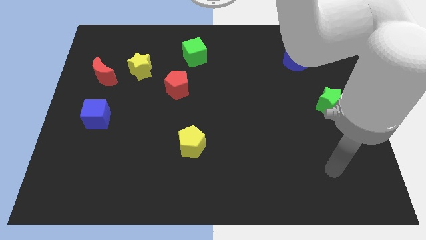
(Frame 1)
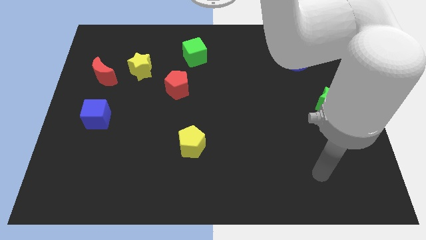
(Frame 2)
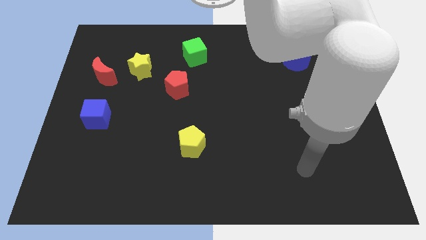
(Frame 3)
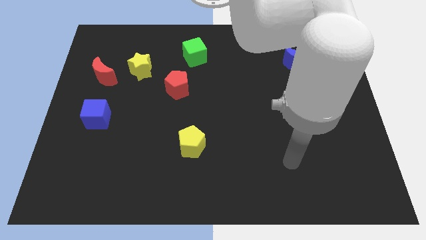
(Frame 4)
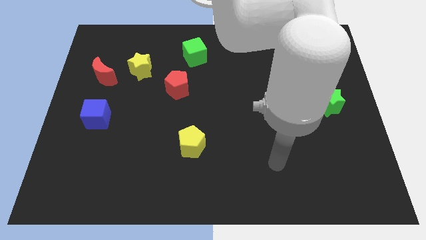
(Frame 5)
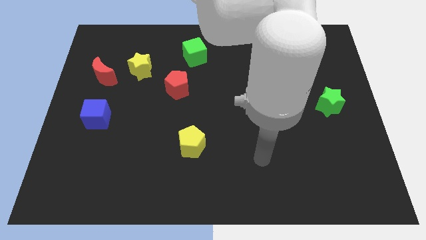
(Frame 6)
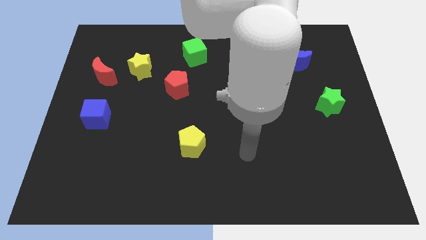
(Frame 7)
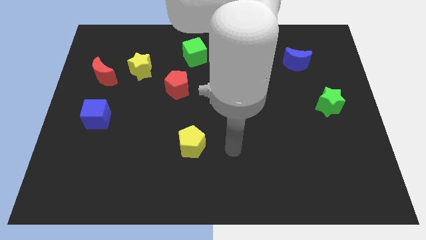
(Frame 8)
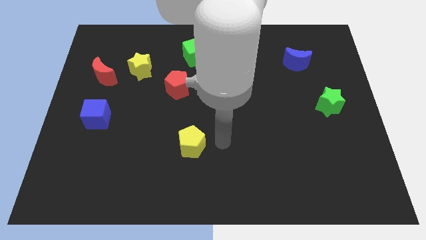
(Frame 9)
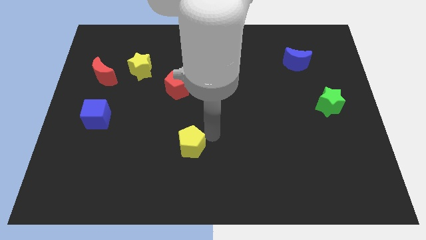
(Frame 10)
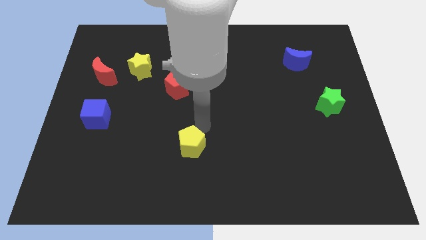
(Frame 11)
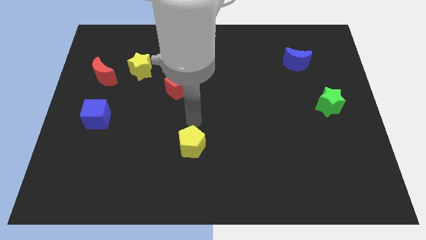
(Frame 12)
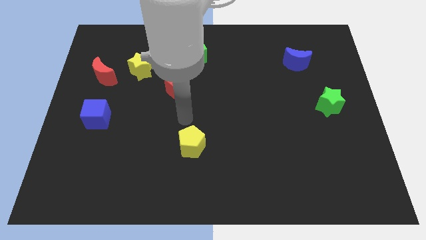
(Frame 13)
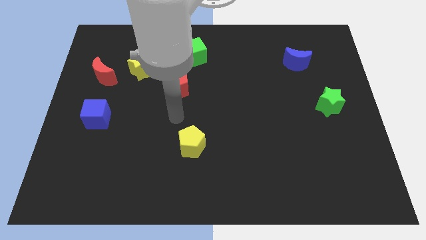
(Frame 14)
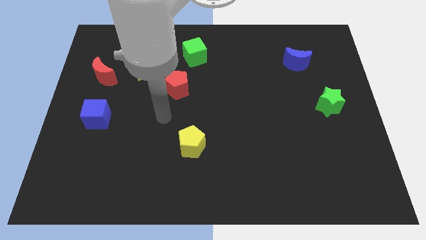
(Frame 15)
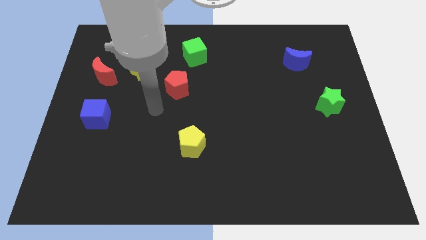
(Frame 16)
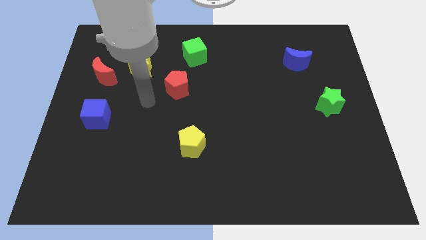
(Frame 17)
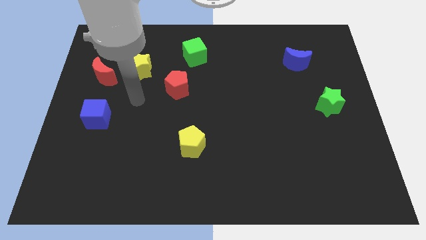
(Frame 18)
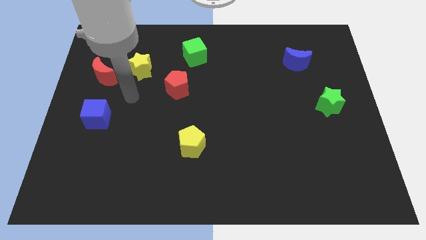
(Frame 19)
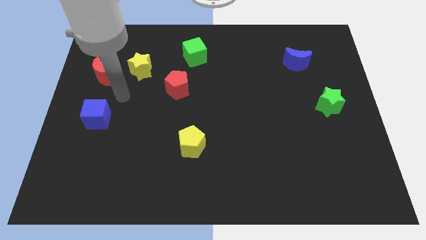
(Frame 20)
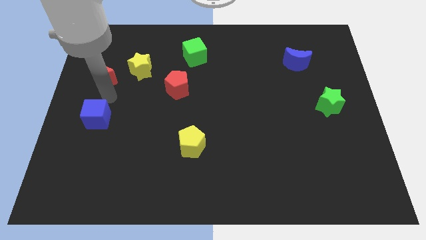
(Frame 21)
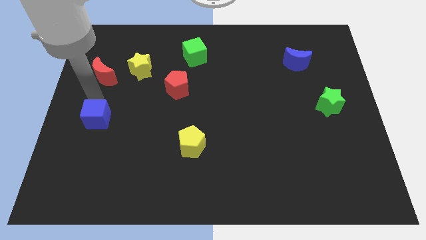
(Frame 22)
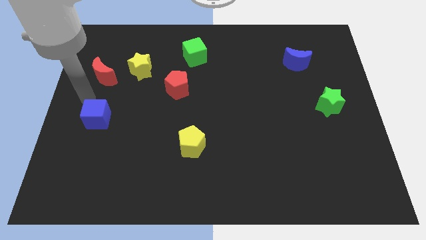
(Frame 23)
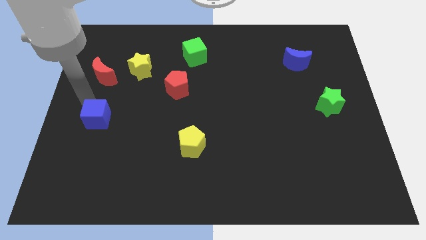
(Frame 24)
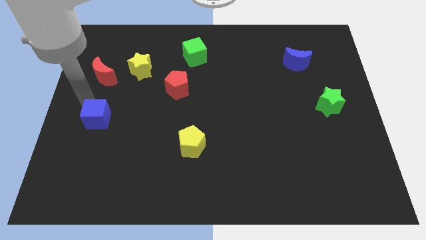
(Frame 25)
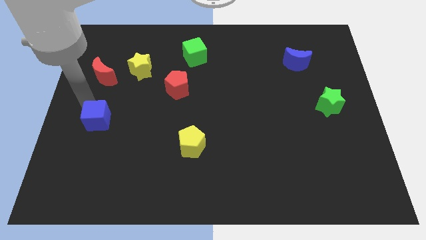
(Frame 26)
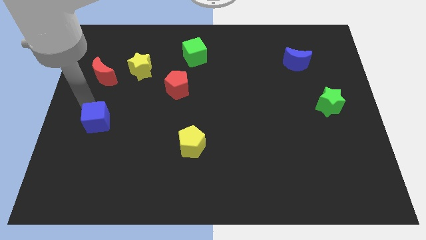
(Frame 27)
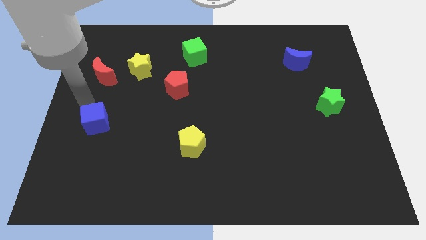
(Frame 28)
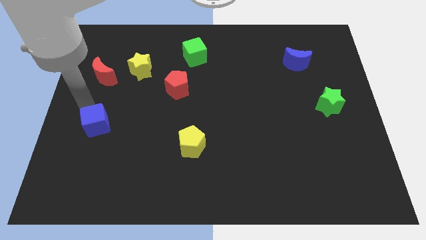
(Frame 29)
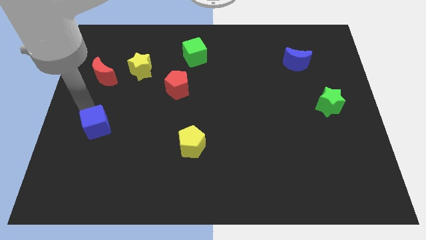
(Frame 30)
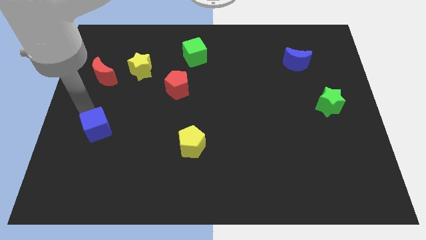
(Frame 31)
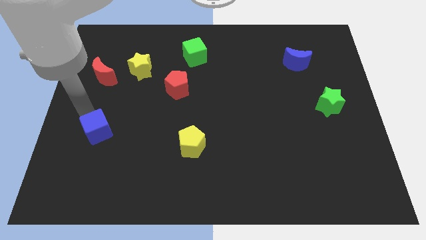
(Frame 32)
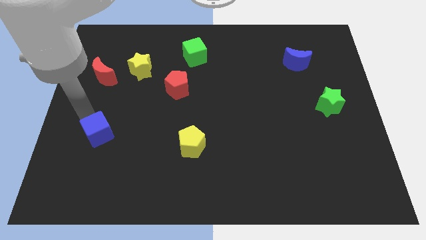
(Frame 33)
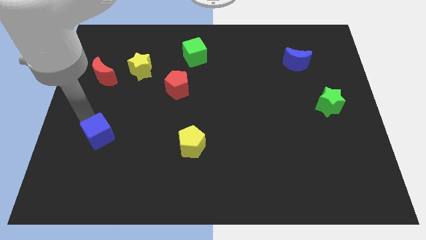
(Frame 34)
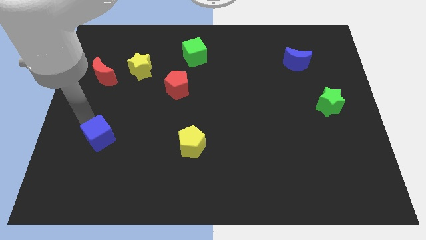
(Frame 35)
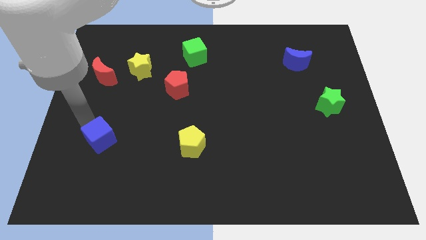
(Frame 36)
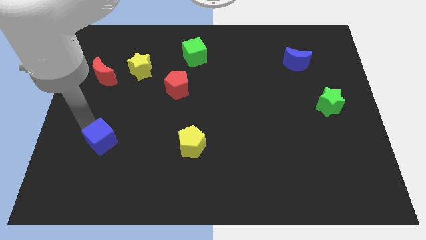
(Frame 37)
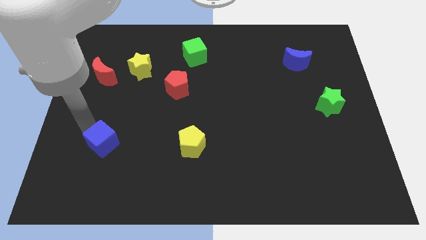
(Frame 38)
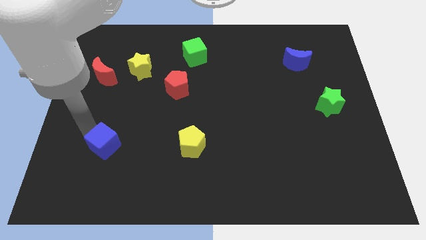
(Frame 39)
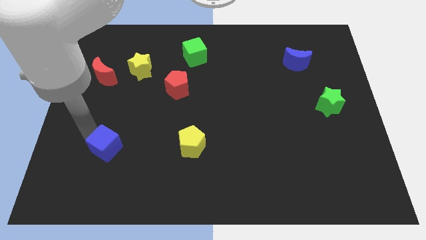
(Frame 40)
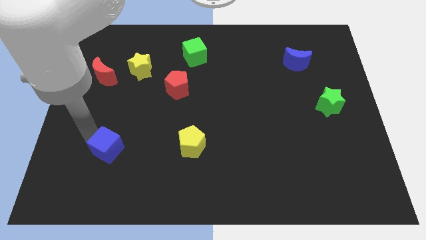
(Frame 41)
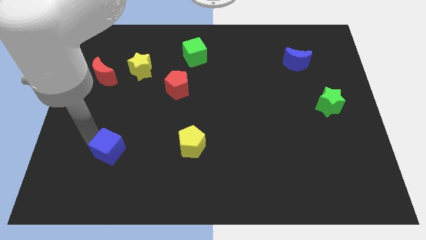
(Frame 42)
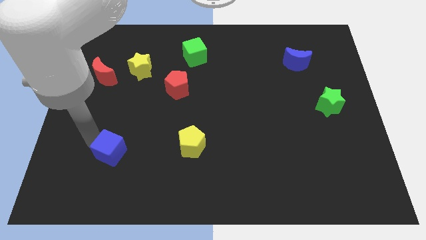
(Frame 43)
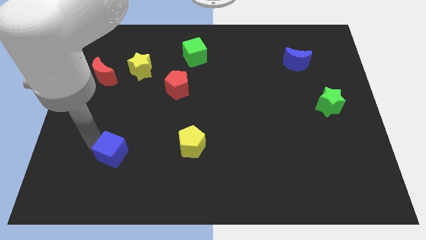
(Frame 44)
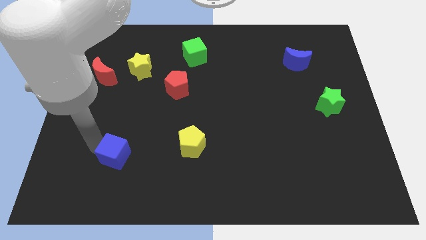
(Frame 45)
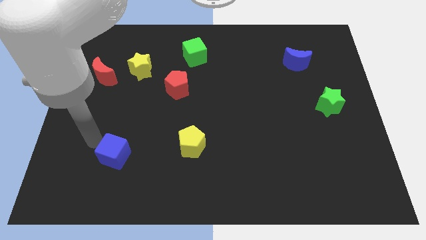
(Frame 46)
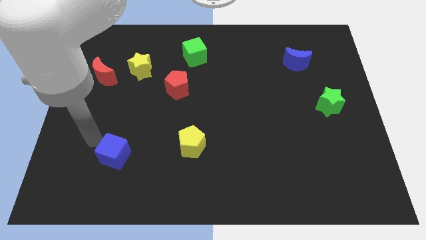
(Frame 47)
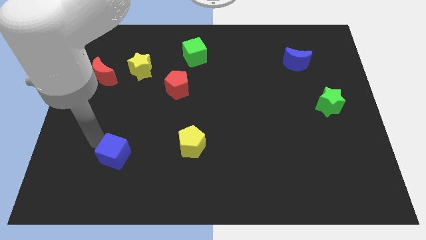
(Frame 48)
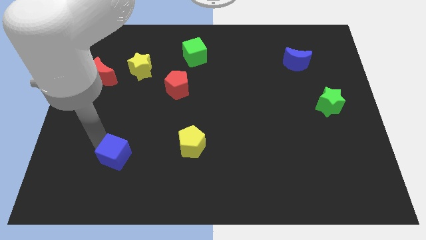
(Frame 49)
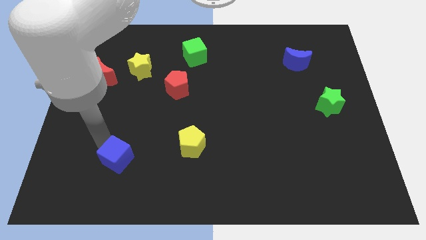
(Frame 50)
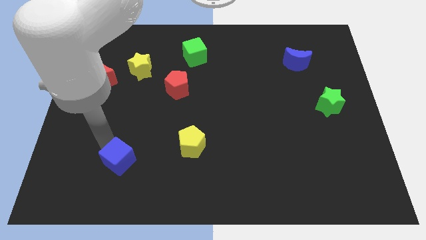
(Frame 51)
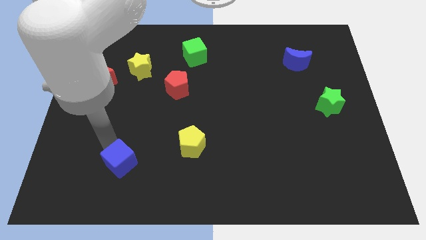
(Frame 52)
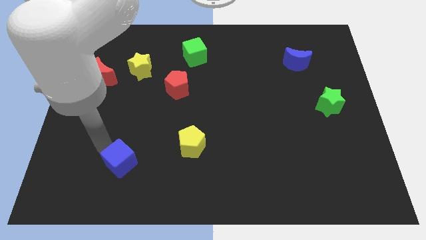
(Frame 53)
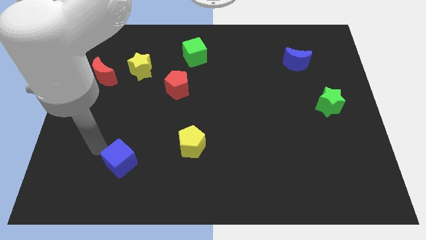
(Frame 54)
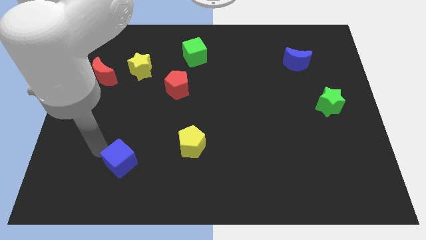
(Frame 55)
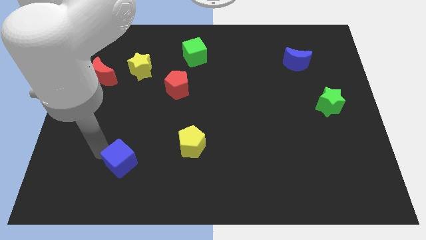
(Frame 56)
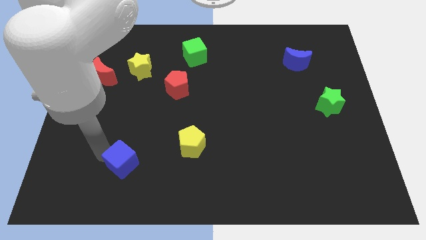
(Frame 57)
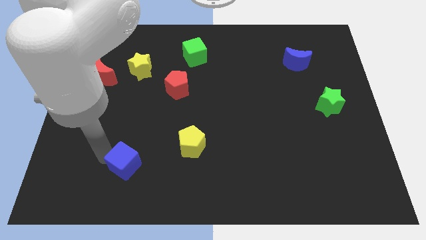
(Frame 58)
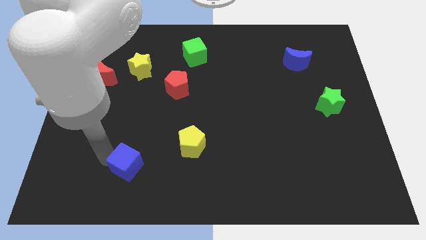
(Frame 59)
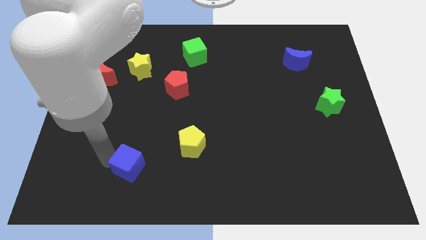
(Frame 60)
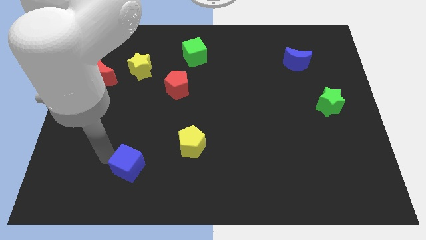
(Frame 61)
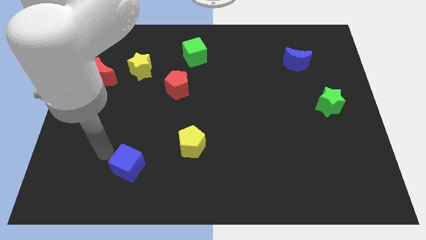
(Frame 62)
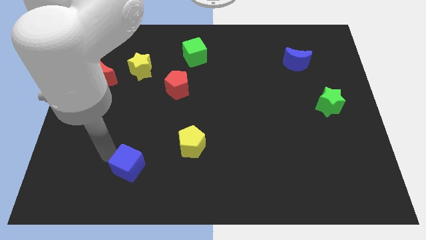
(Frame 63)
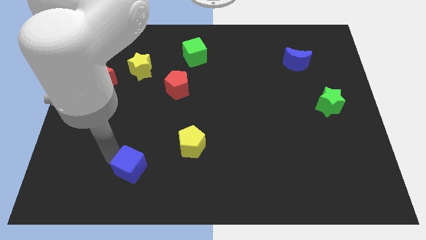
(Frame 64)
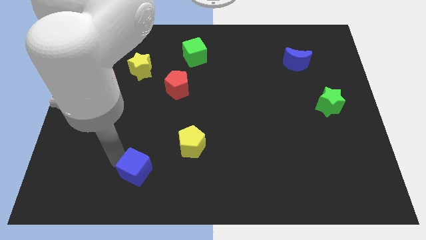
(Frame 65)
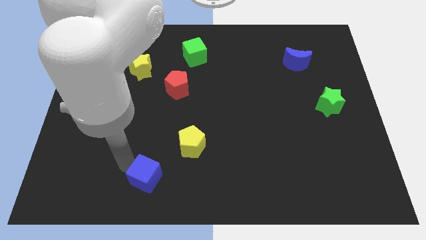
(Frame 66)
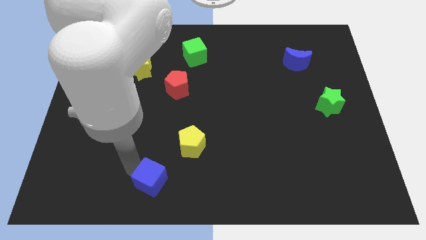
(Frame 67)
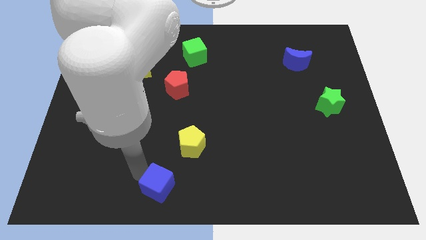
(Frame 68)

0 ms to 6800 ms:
slide the blue cube to the bottom side
